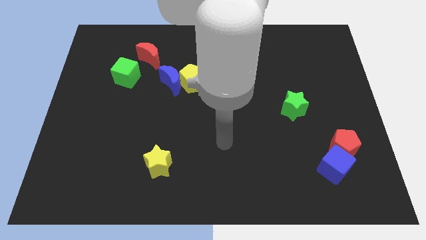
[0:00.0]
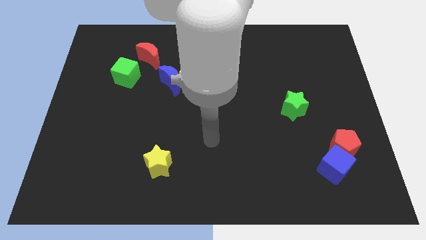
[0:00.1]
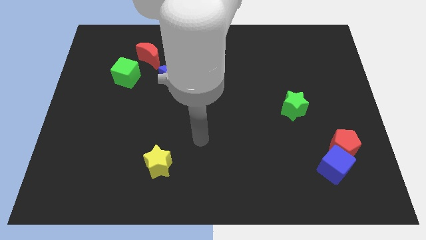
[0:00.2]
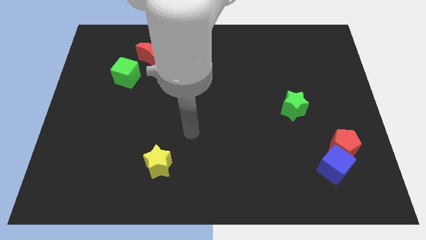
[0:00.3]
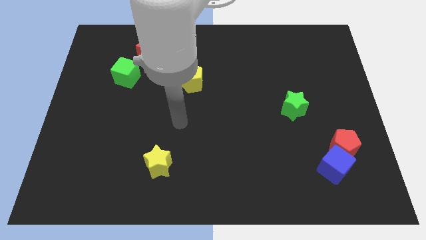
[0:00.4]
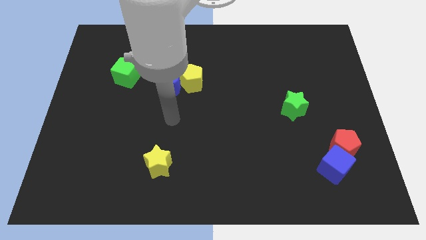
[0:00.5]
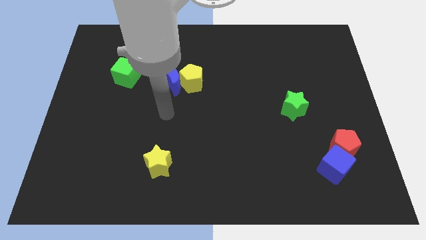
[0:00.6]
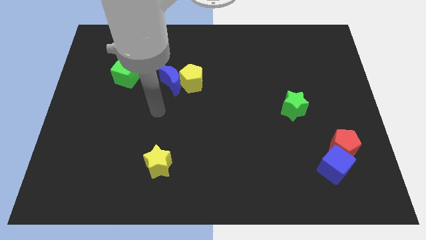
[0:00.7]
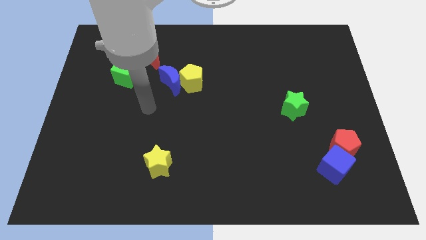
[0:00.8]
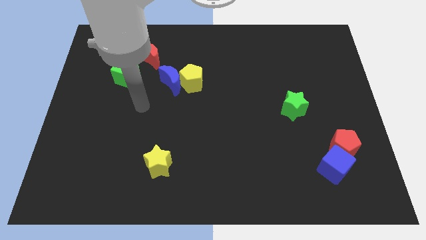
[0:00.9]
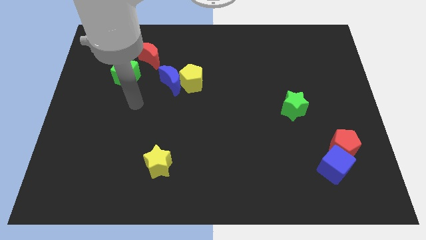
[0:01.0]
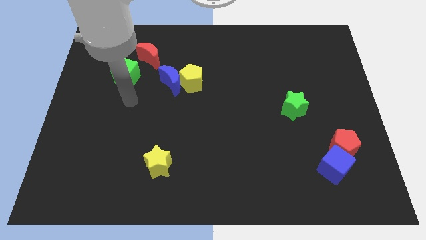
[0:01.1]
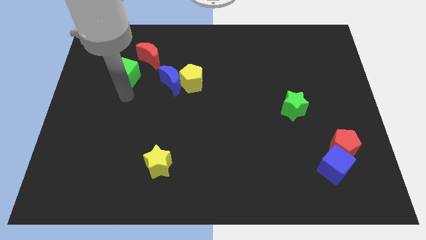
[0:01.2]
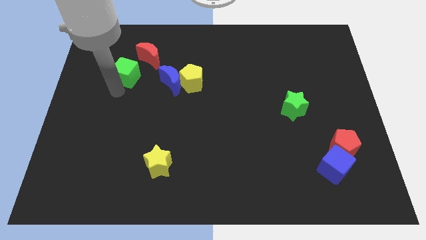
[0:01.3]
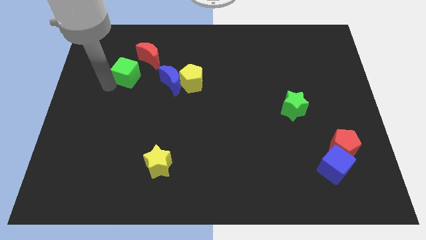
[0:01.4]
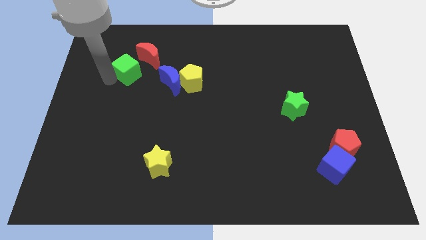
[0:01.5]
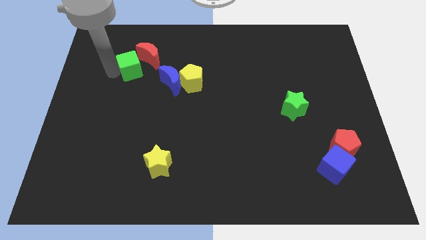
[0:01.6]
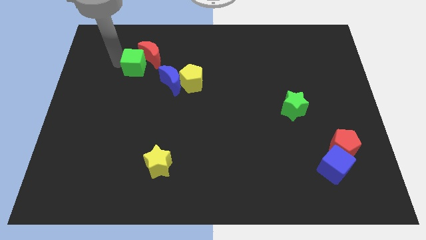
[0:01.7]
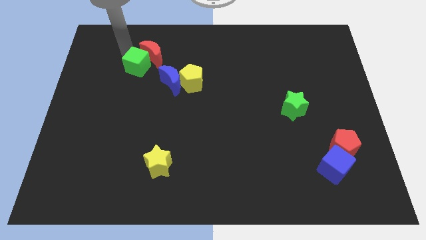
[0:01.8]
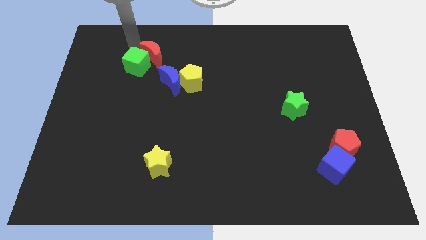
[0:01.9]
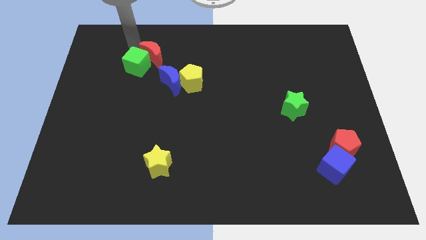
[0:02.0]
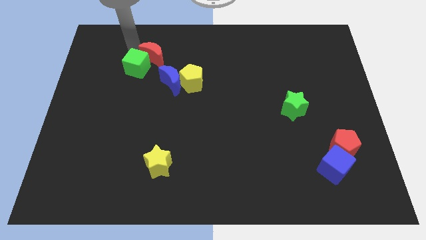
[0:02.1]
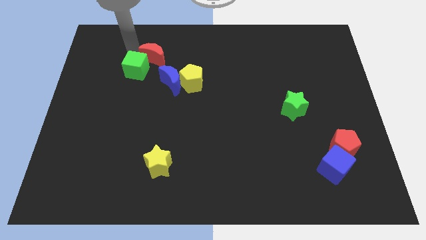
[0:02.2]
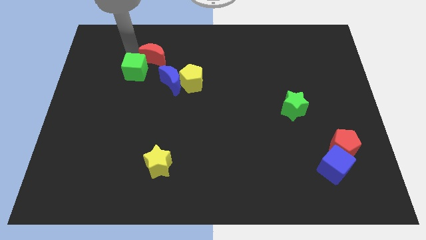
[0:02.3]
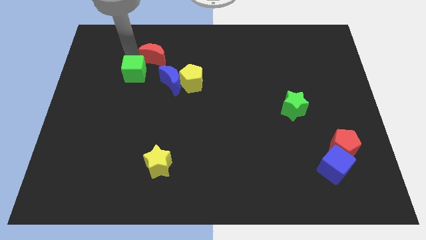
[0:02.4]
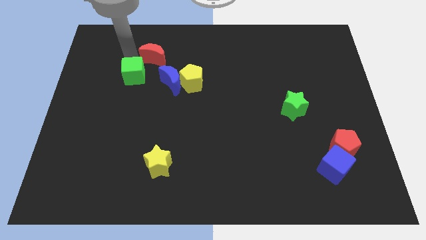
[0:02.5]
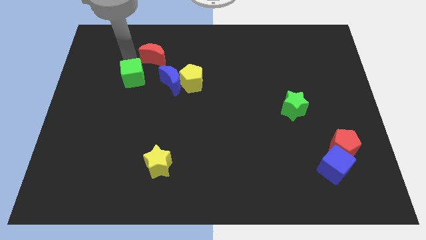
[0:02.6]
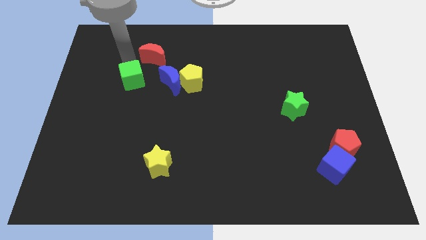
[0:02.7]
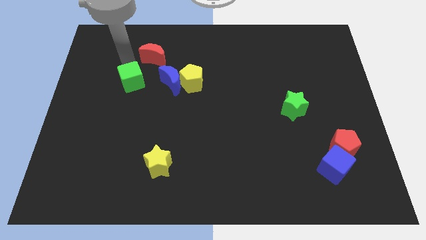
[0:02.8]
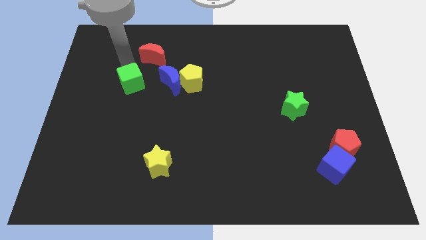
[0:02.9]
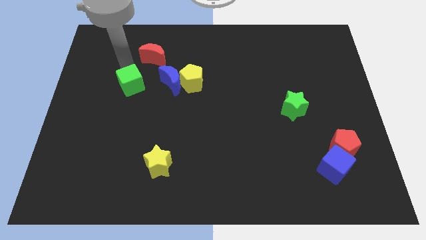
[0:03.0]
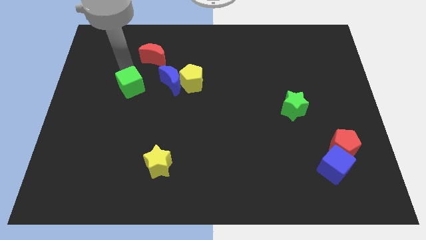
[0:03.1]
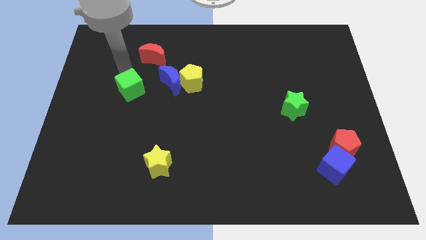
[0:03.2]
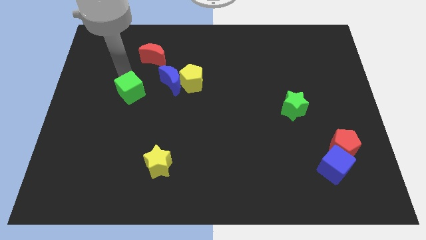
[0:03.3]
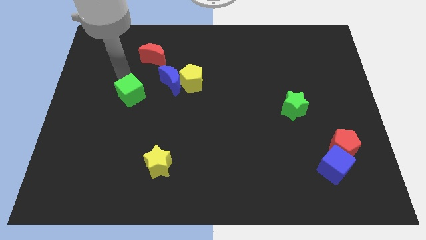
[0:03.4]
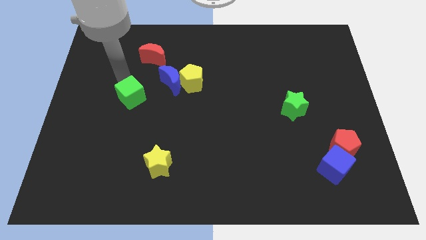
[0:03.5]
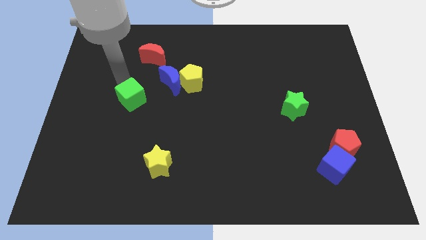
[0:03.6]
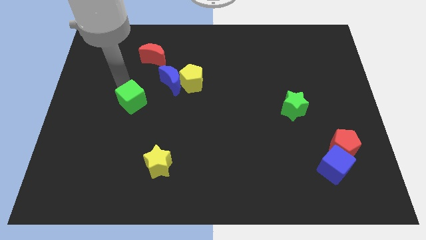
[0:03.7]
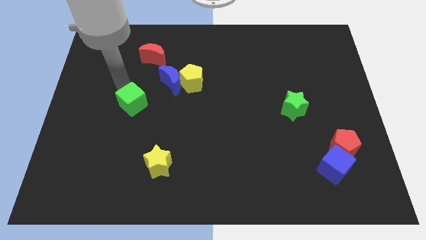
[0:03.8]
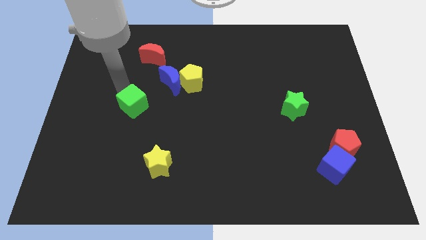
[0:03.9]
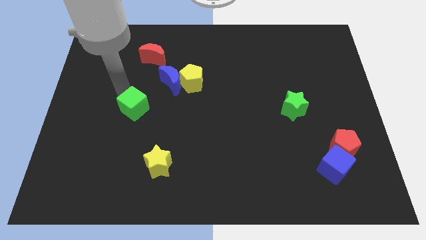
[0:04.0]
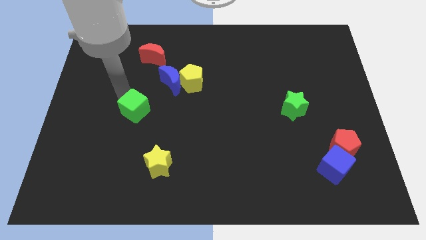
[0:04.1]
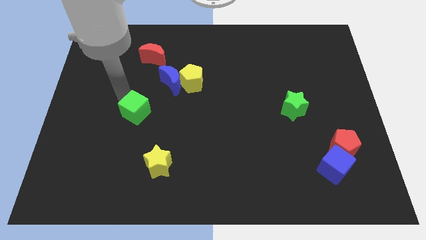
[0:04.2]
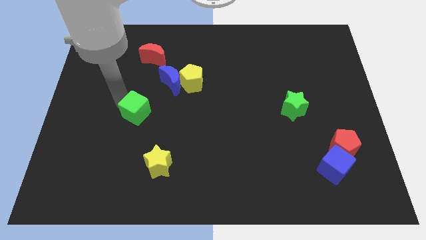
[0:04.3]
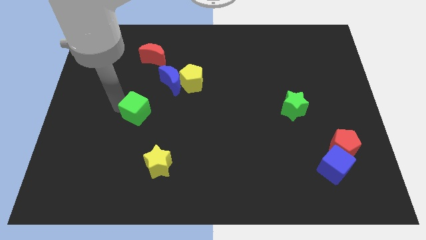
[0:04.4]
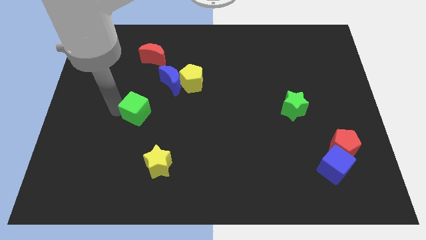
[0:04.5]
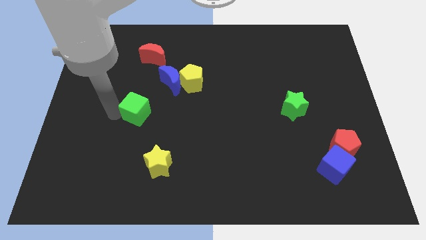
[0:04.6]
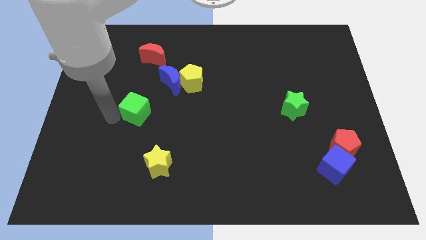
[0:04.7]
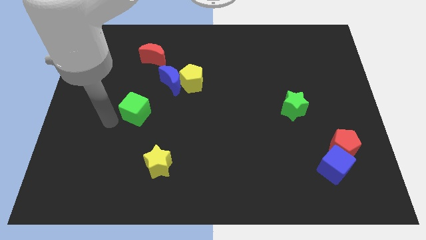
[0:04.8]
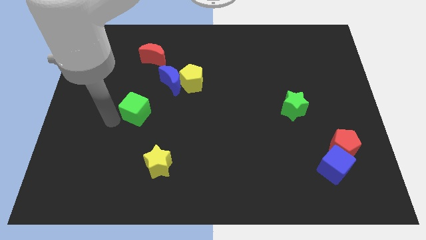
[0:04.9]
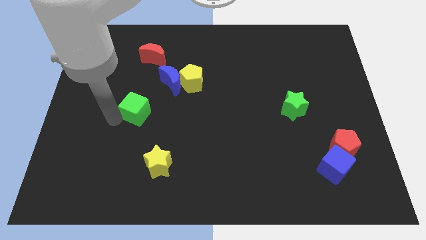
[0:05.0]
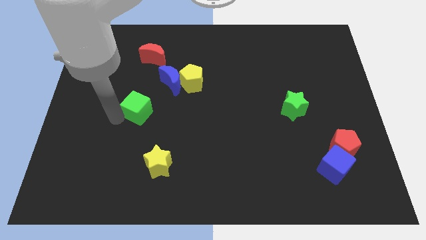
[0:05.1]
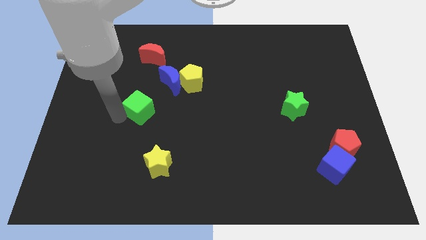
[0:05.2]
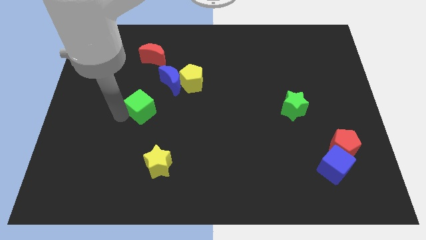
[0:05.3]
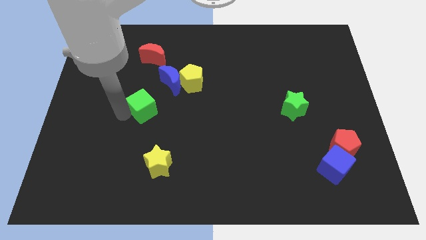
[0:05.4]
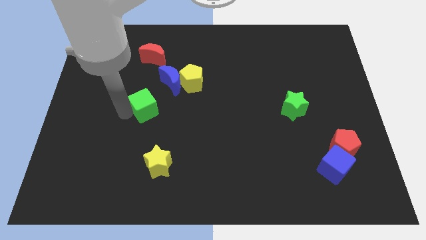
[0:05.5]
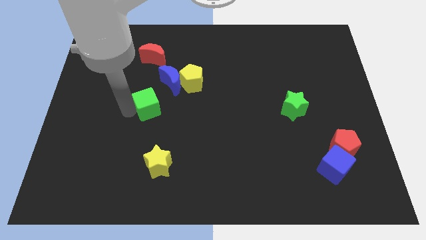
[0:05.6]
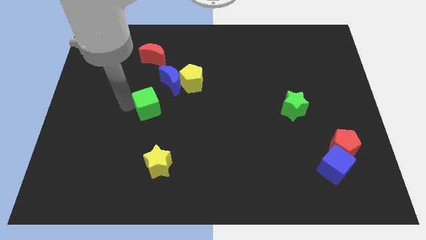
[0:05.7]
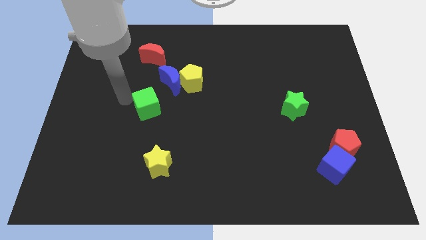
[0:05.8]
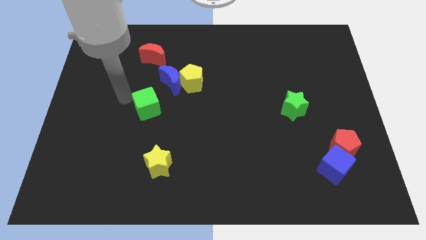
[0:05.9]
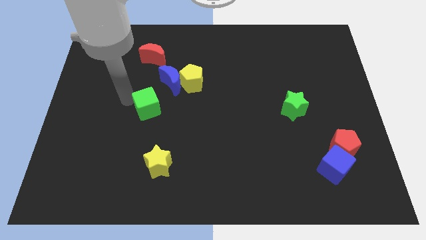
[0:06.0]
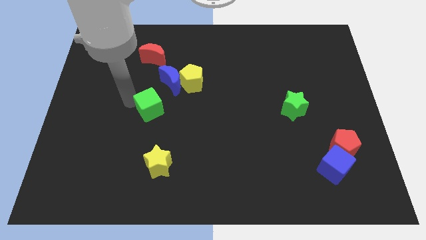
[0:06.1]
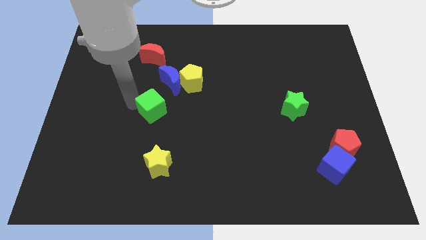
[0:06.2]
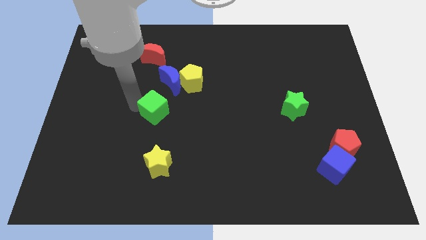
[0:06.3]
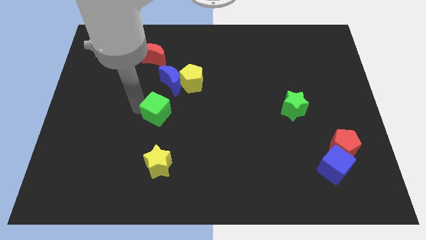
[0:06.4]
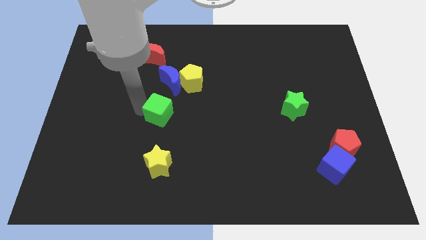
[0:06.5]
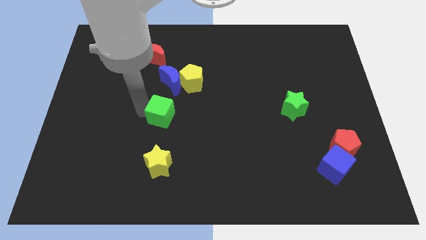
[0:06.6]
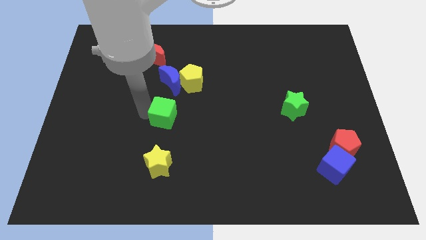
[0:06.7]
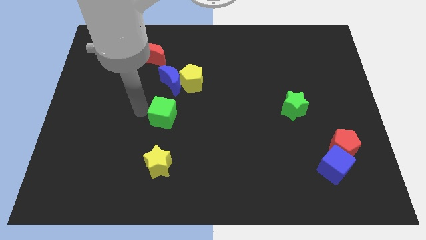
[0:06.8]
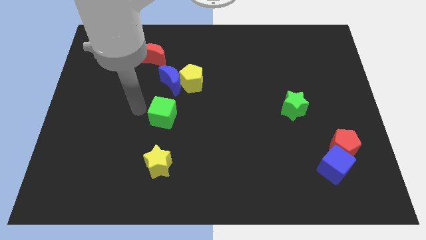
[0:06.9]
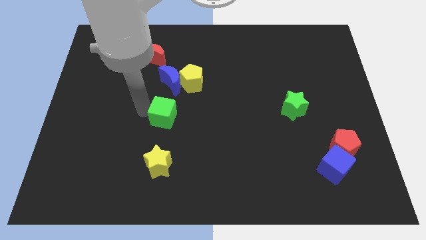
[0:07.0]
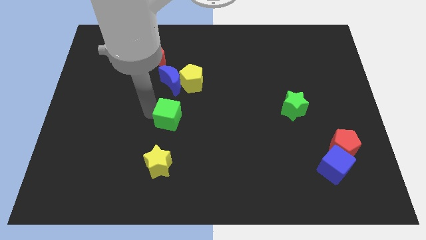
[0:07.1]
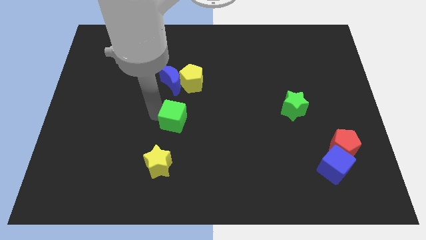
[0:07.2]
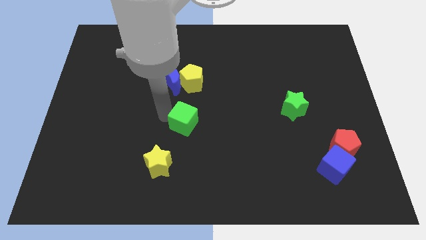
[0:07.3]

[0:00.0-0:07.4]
slide the green cube diagonally down and to the right

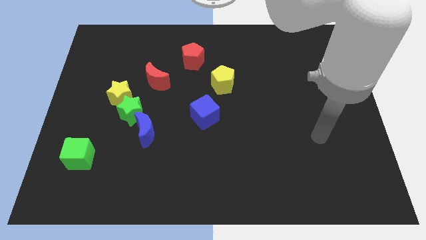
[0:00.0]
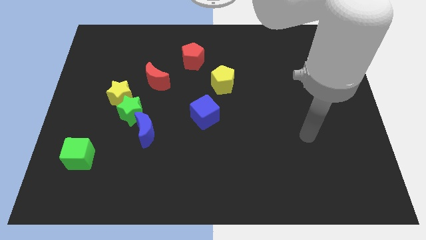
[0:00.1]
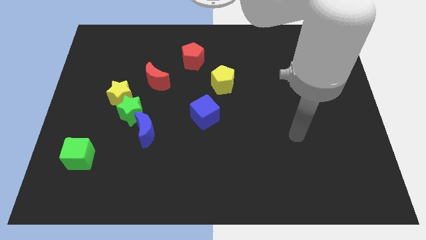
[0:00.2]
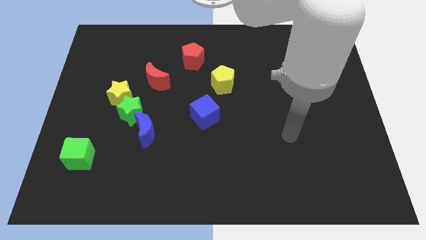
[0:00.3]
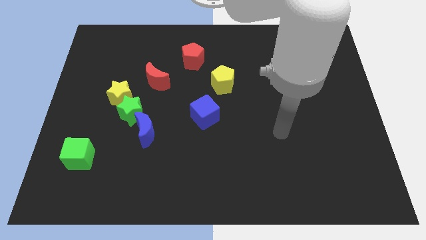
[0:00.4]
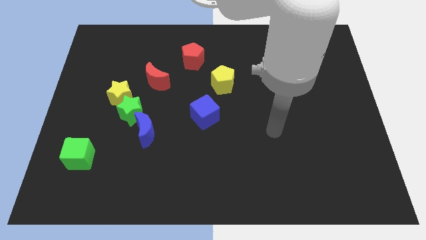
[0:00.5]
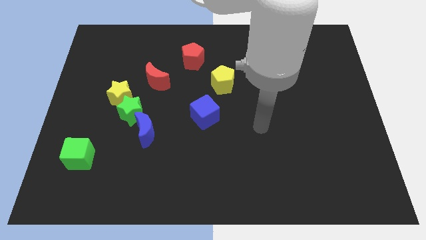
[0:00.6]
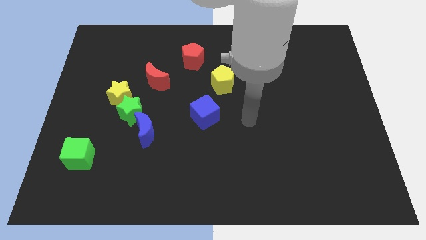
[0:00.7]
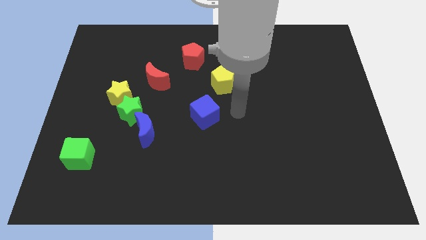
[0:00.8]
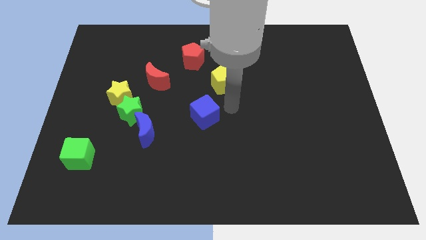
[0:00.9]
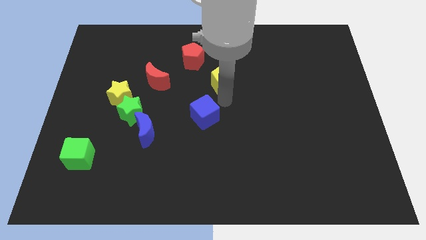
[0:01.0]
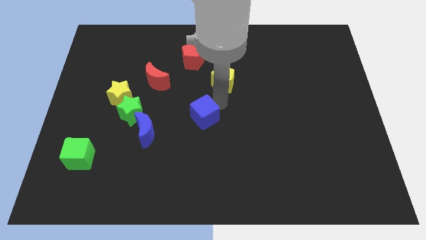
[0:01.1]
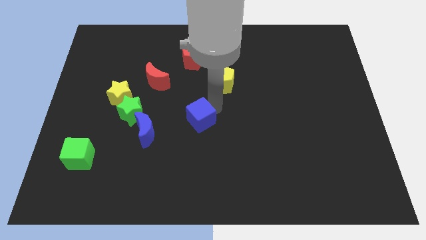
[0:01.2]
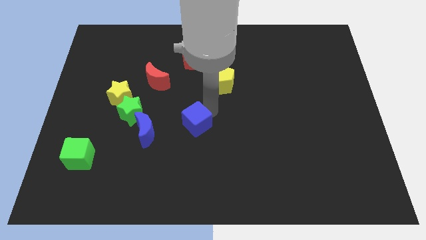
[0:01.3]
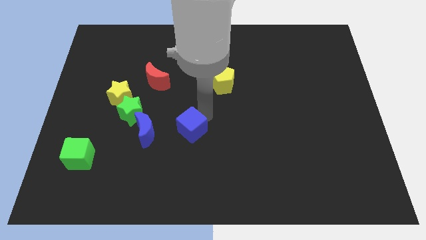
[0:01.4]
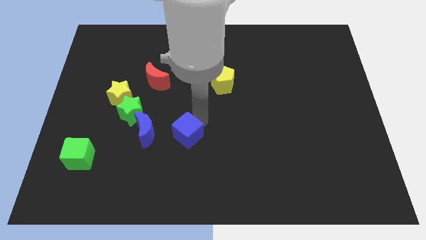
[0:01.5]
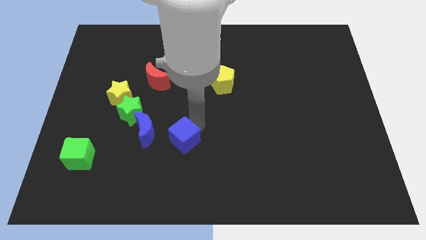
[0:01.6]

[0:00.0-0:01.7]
push the blue cube a bit downwards and to the left
